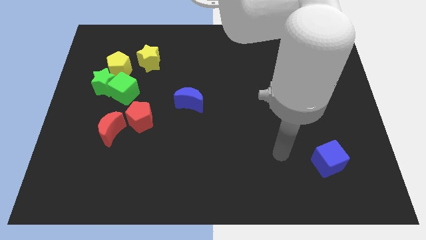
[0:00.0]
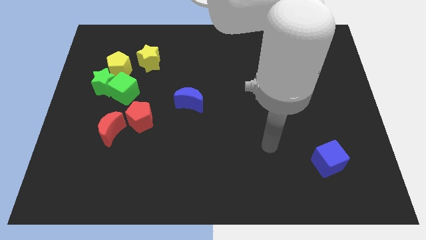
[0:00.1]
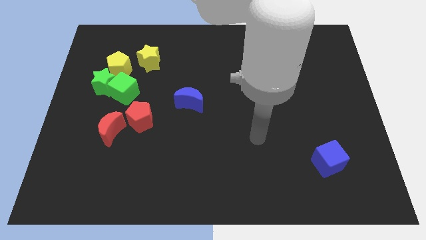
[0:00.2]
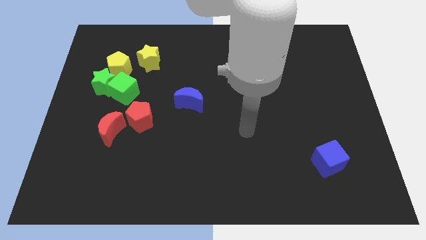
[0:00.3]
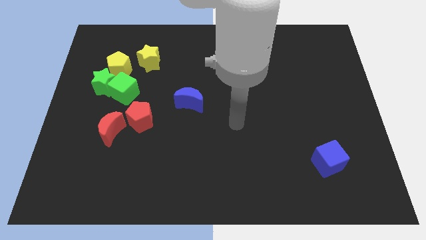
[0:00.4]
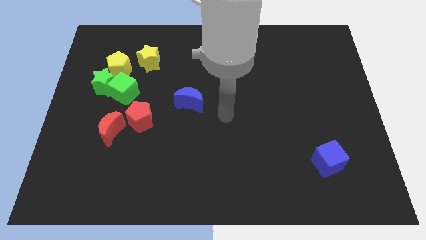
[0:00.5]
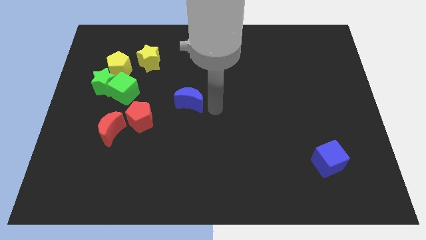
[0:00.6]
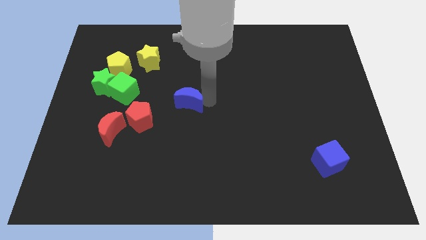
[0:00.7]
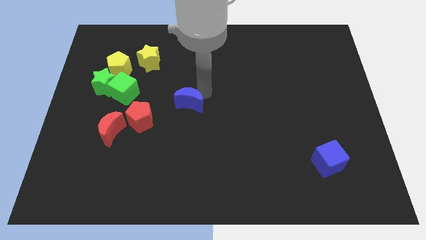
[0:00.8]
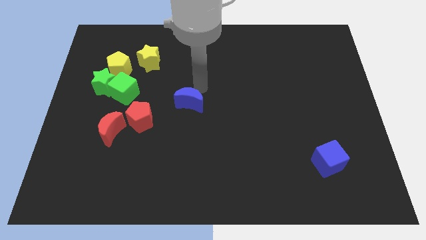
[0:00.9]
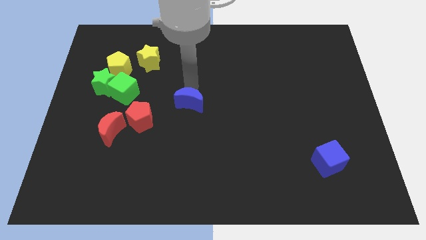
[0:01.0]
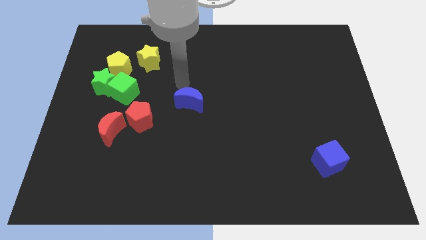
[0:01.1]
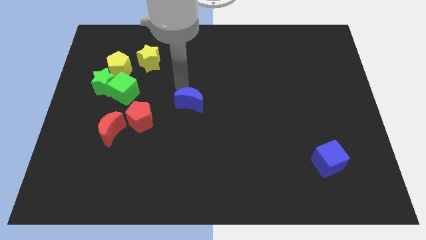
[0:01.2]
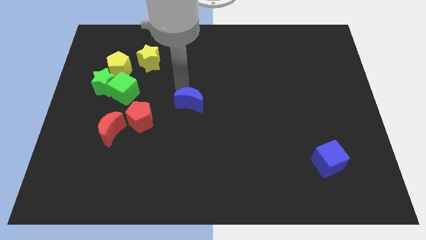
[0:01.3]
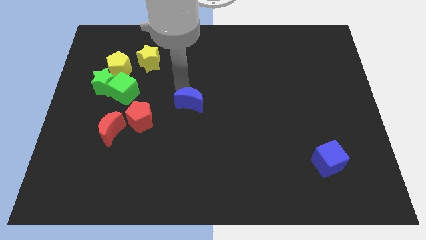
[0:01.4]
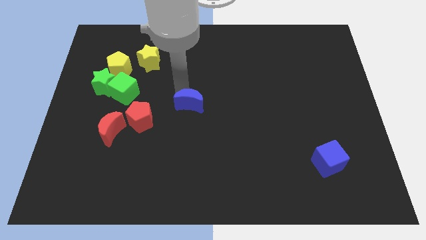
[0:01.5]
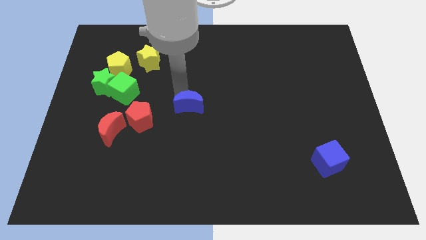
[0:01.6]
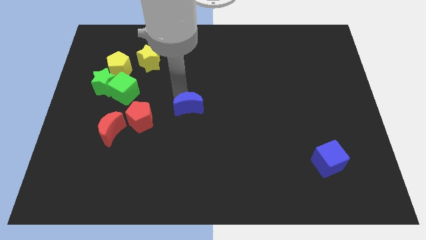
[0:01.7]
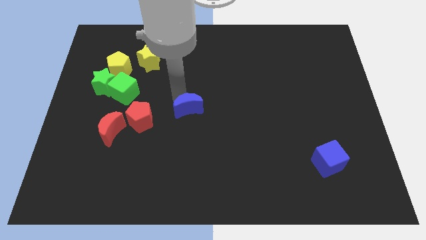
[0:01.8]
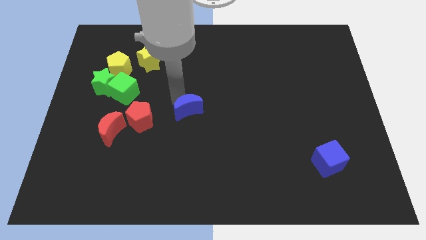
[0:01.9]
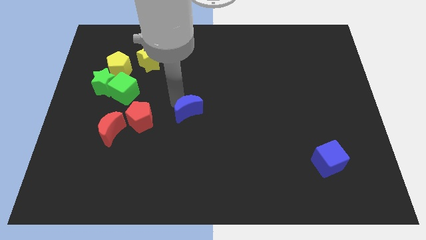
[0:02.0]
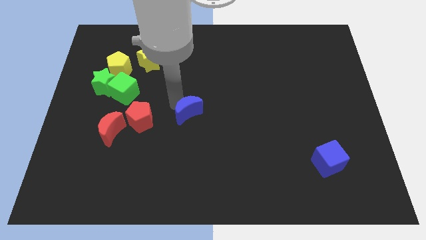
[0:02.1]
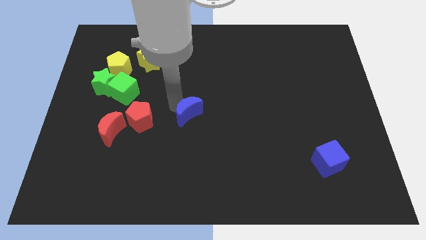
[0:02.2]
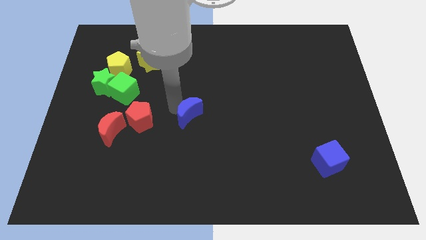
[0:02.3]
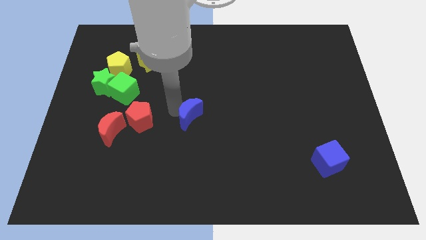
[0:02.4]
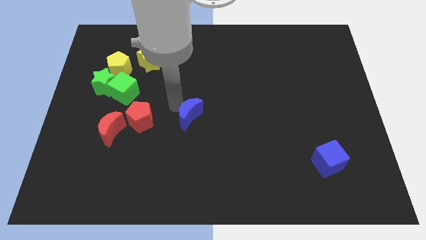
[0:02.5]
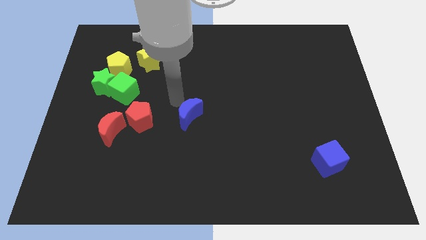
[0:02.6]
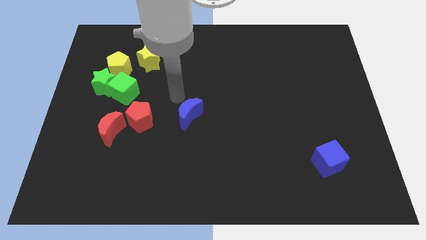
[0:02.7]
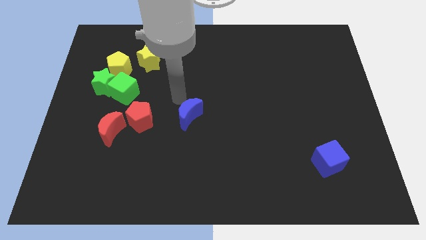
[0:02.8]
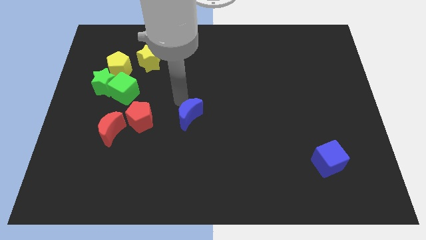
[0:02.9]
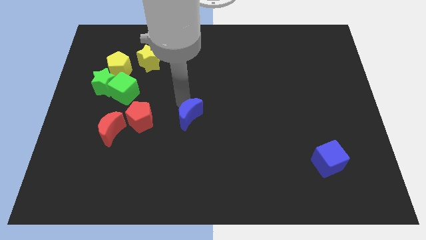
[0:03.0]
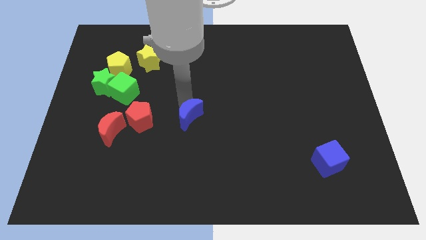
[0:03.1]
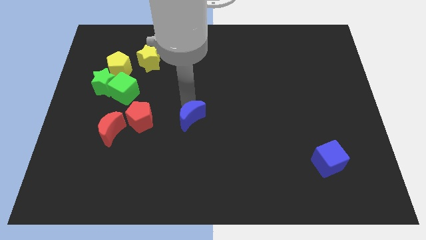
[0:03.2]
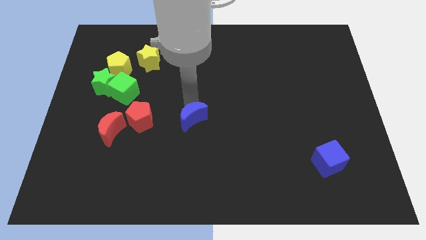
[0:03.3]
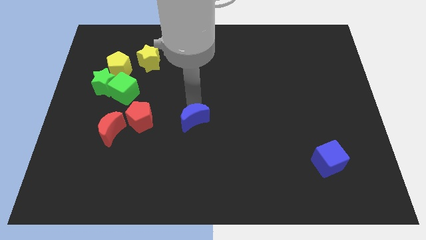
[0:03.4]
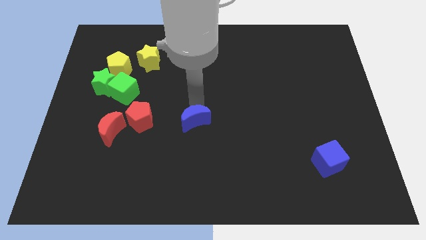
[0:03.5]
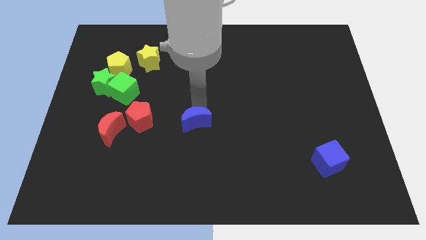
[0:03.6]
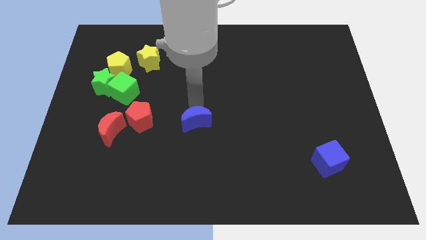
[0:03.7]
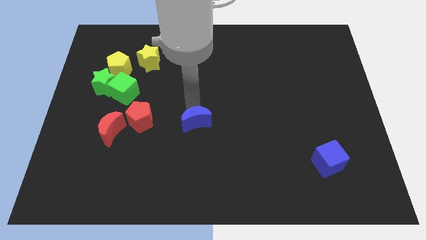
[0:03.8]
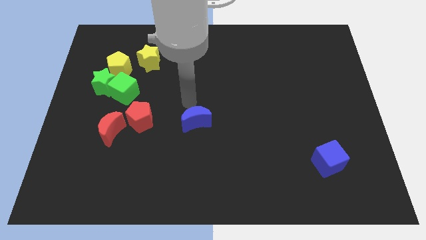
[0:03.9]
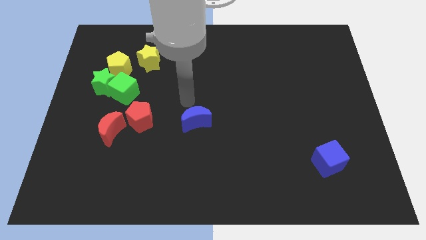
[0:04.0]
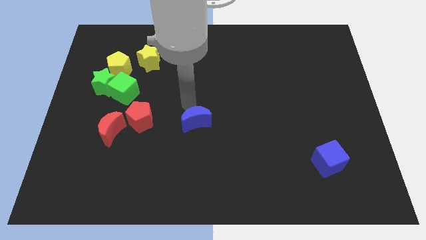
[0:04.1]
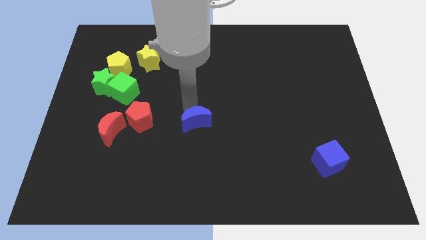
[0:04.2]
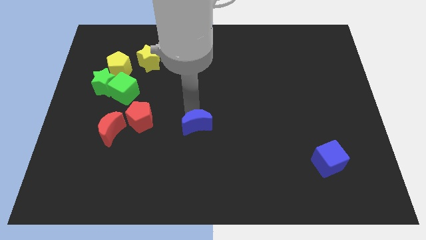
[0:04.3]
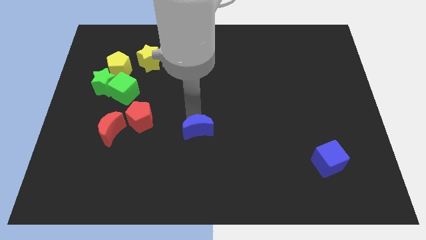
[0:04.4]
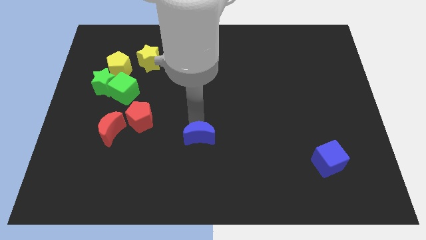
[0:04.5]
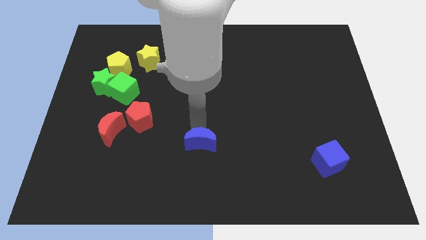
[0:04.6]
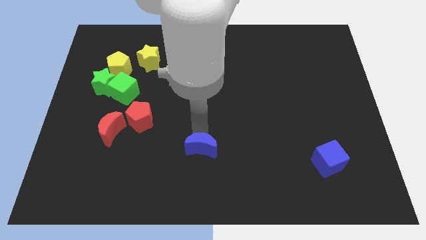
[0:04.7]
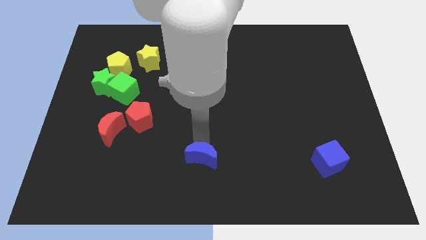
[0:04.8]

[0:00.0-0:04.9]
push the blue moon to the bottom side

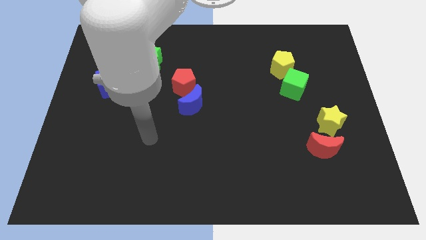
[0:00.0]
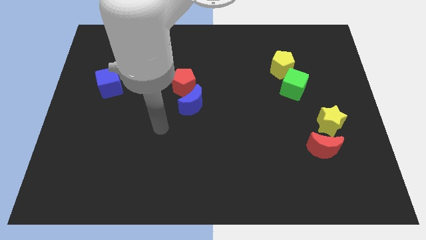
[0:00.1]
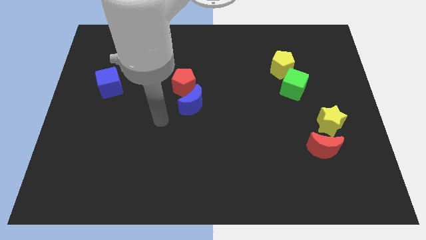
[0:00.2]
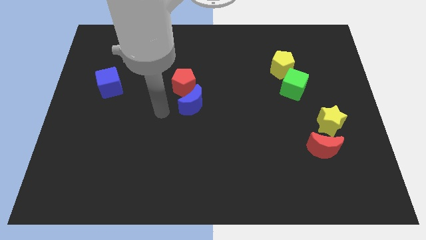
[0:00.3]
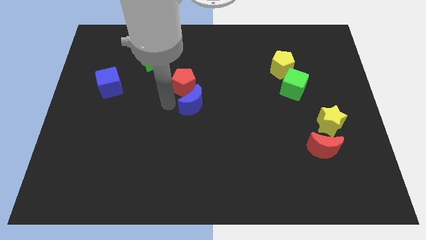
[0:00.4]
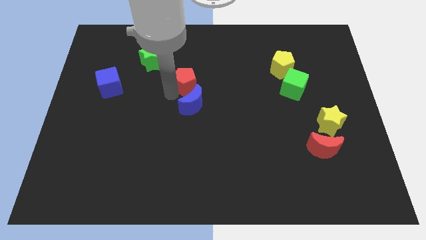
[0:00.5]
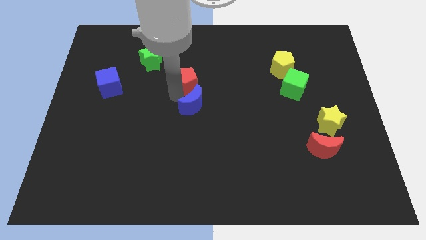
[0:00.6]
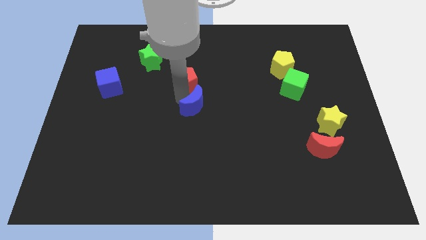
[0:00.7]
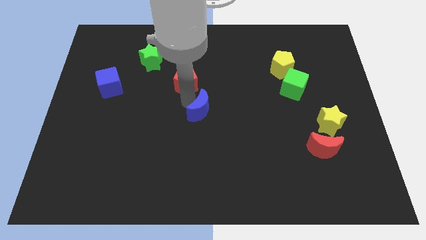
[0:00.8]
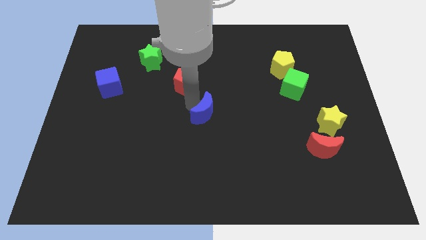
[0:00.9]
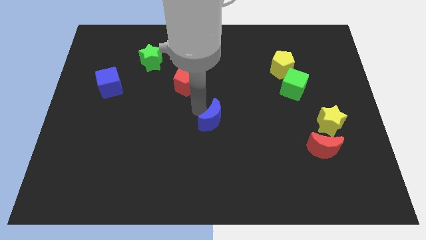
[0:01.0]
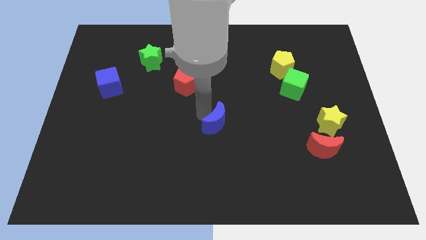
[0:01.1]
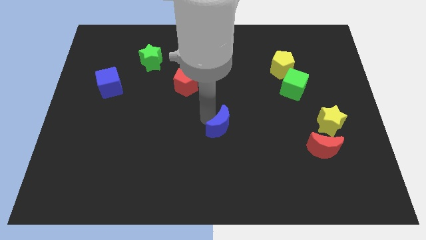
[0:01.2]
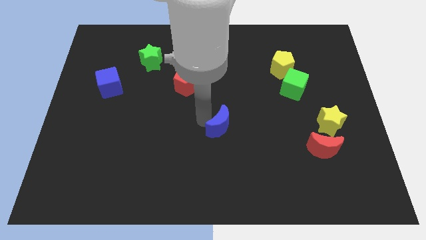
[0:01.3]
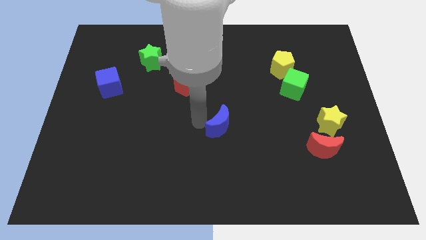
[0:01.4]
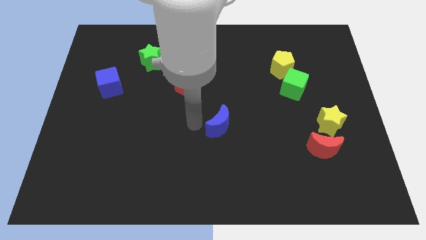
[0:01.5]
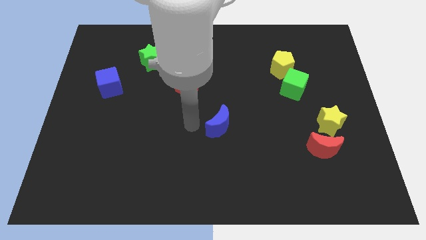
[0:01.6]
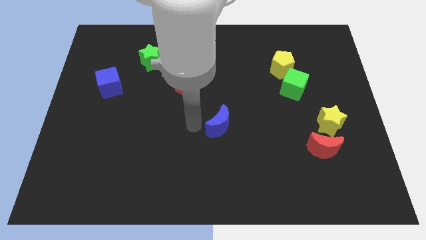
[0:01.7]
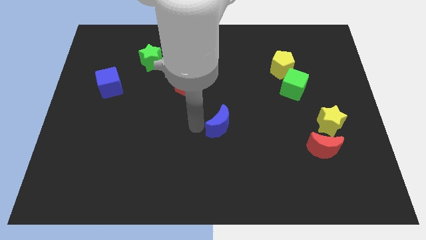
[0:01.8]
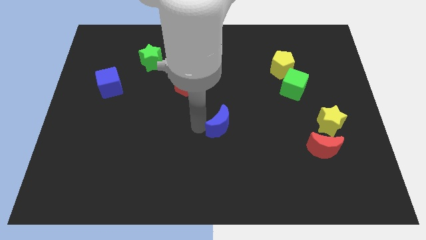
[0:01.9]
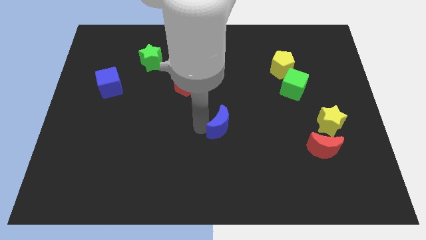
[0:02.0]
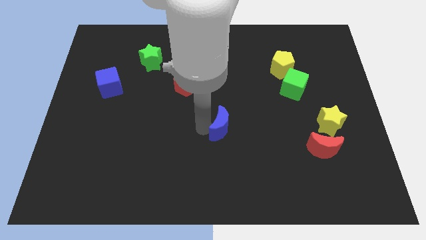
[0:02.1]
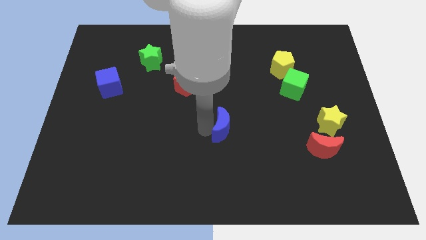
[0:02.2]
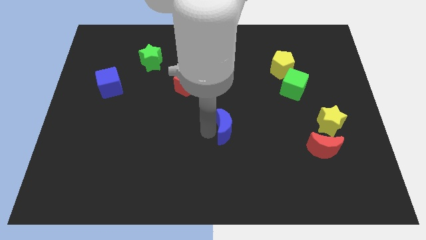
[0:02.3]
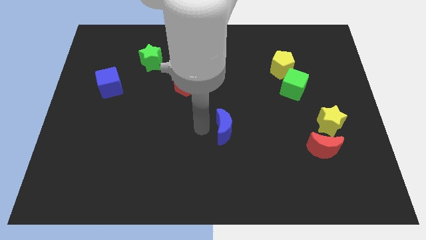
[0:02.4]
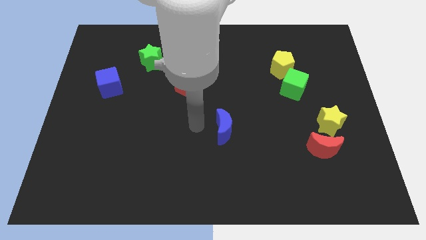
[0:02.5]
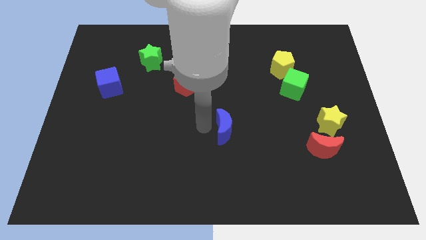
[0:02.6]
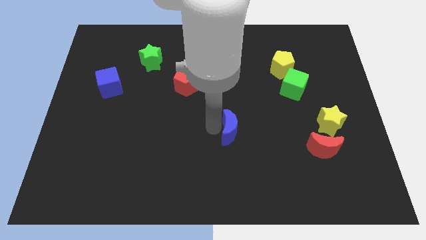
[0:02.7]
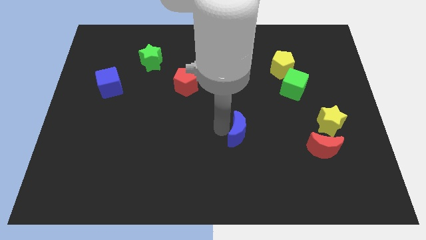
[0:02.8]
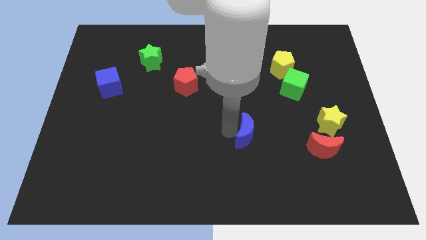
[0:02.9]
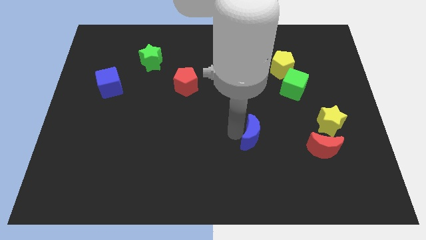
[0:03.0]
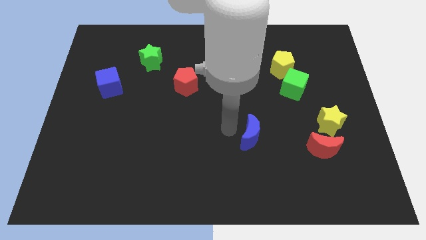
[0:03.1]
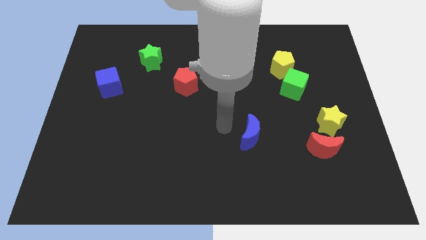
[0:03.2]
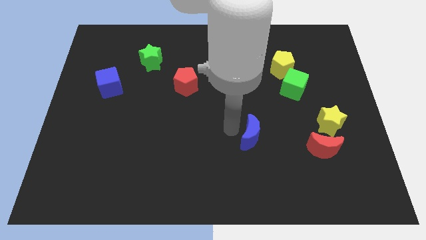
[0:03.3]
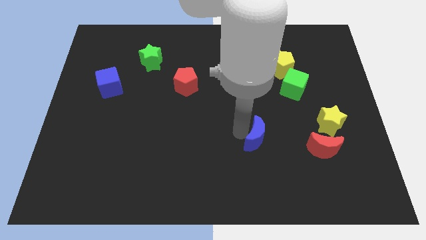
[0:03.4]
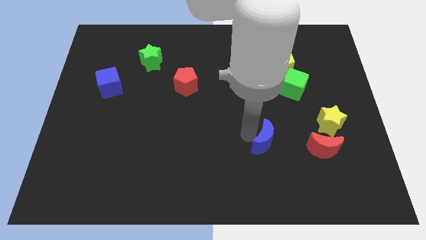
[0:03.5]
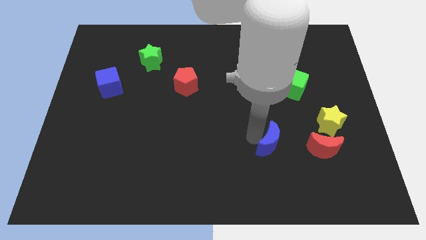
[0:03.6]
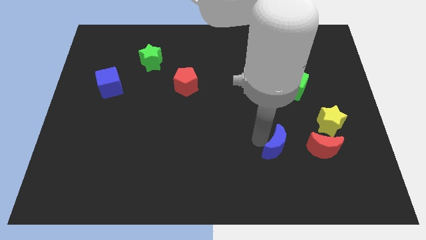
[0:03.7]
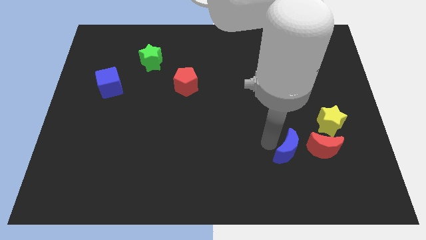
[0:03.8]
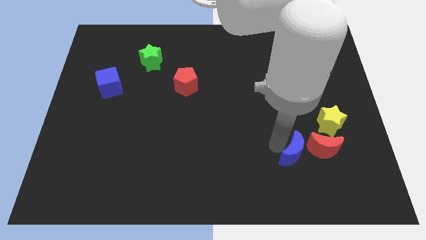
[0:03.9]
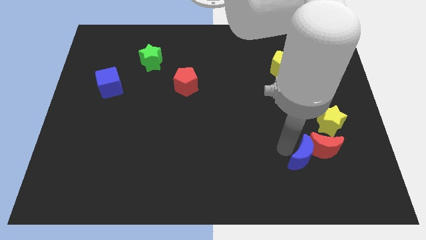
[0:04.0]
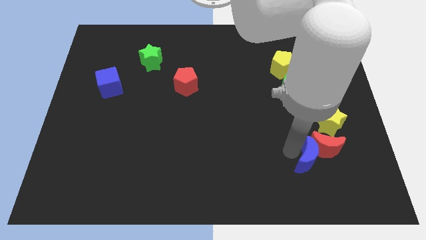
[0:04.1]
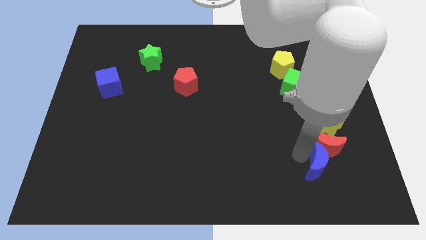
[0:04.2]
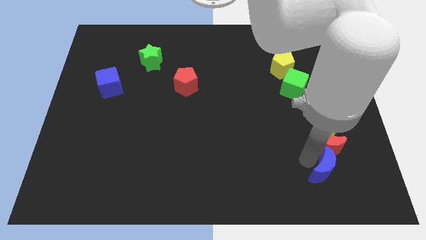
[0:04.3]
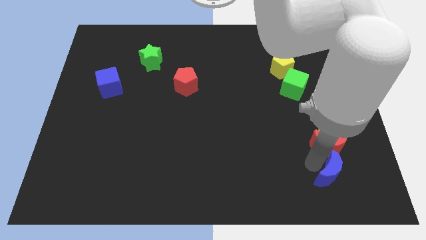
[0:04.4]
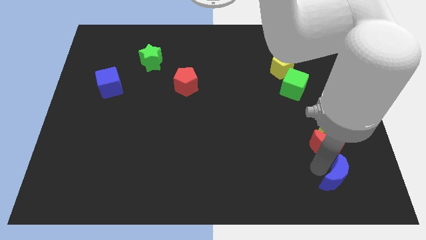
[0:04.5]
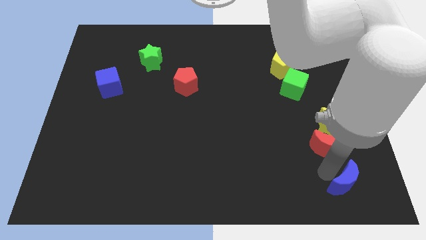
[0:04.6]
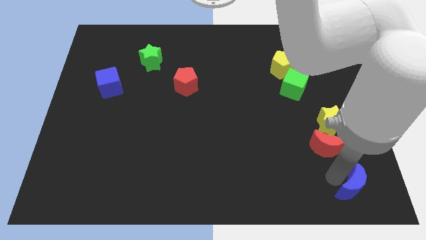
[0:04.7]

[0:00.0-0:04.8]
move the blue moon to the bottom right corner
